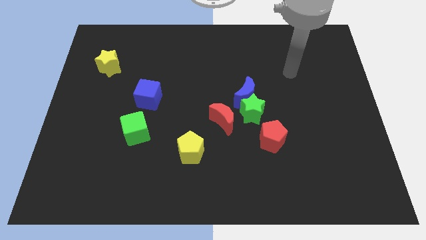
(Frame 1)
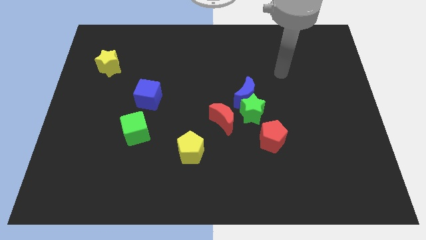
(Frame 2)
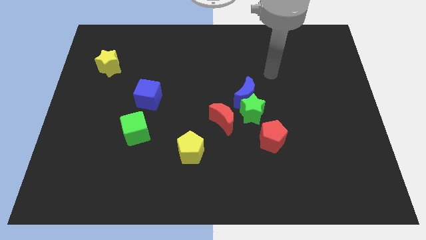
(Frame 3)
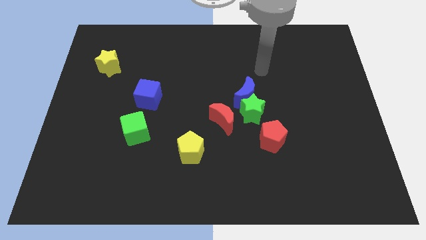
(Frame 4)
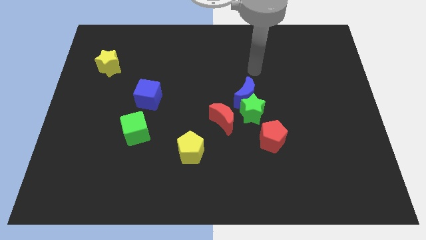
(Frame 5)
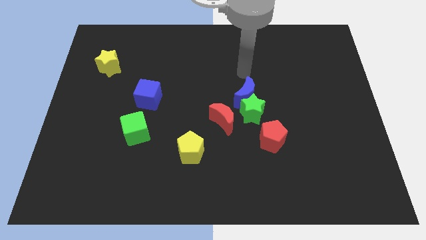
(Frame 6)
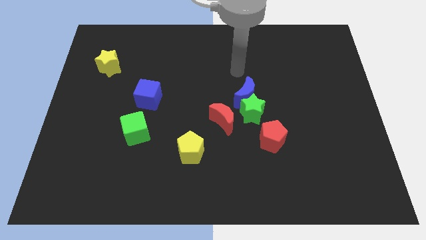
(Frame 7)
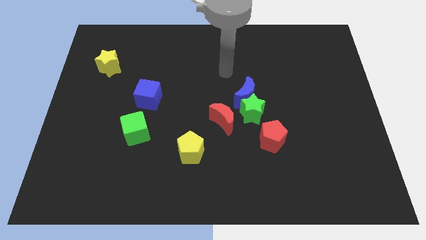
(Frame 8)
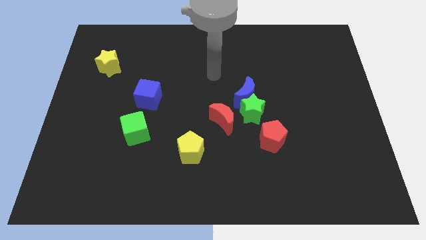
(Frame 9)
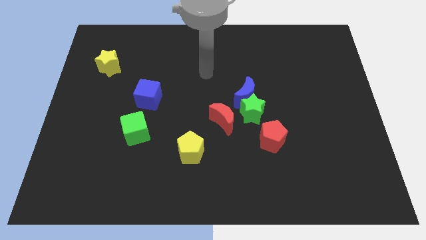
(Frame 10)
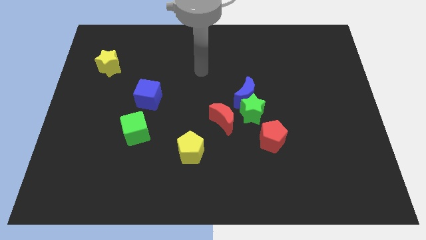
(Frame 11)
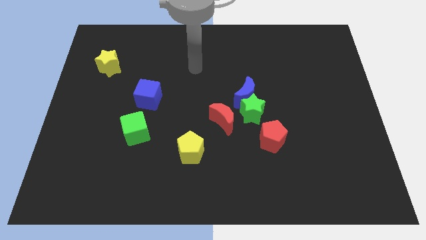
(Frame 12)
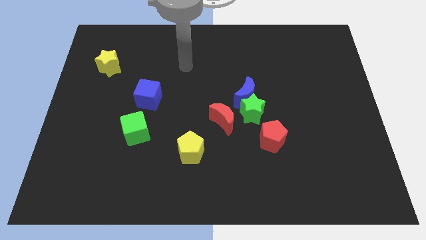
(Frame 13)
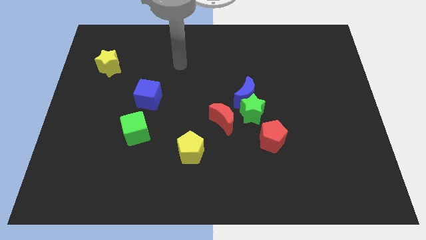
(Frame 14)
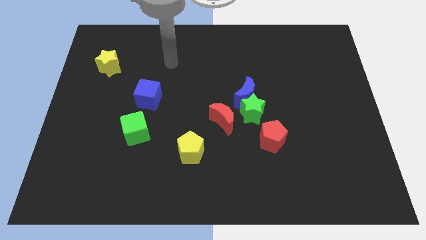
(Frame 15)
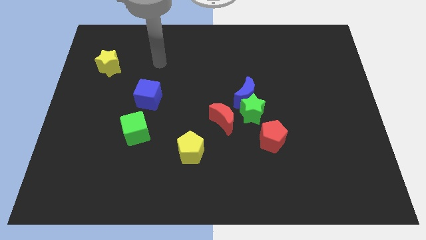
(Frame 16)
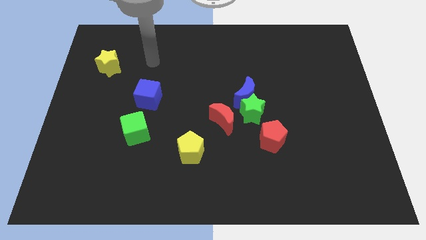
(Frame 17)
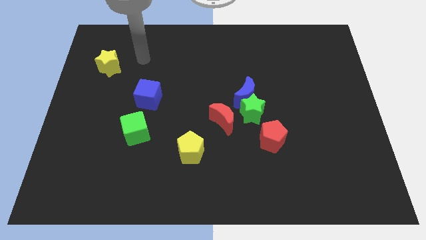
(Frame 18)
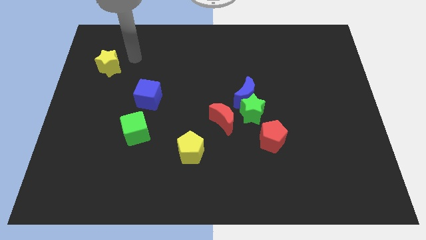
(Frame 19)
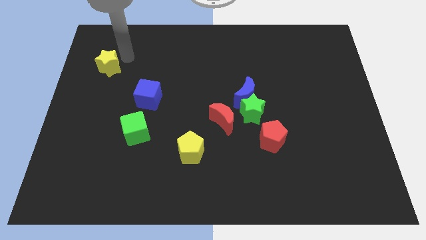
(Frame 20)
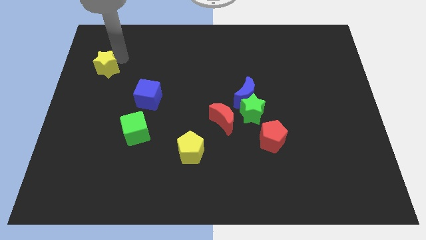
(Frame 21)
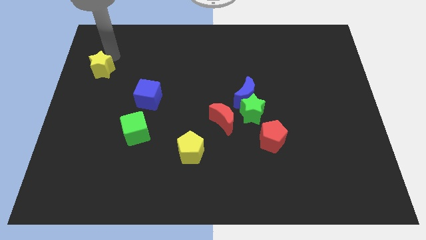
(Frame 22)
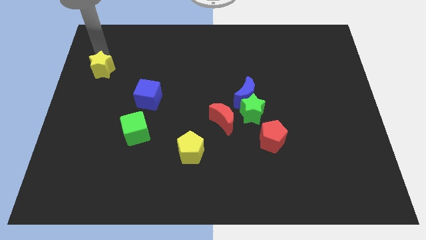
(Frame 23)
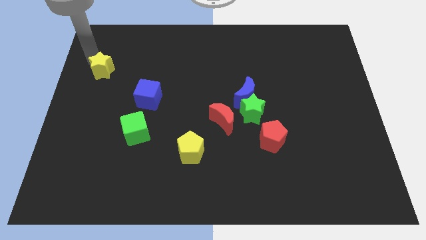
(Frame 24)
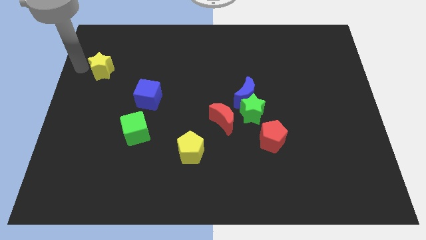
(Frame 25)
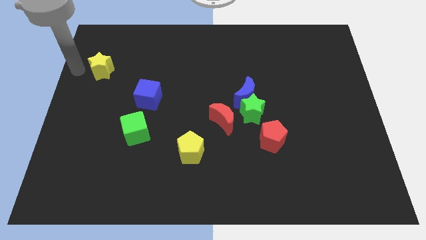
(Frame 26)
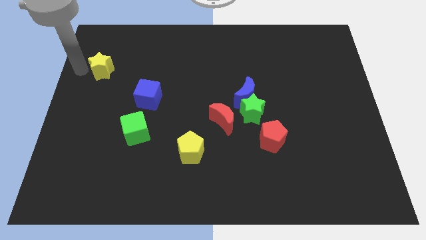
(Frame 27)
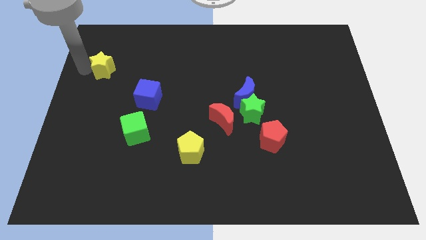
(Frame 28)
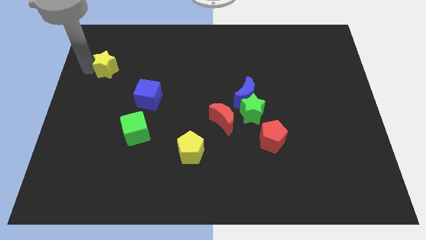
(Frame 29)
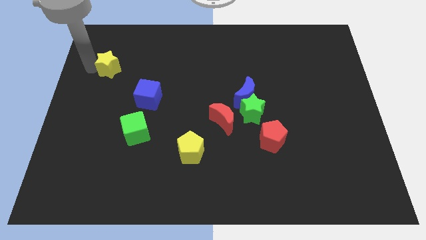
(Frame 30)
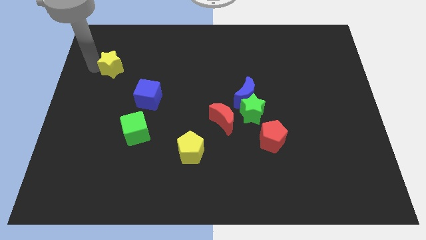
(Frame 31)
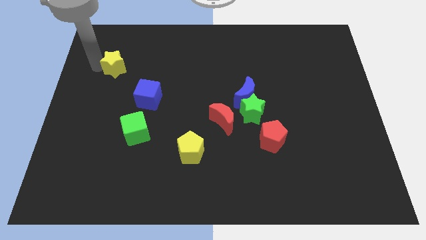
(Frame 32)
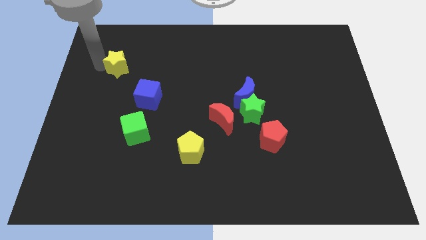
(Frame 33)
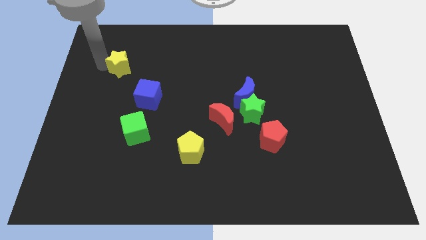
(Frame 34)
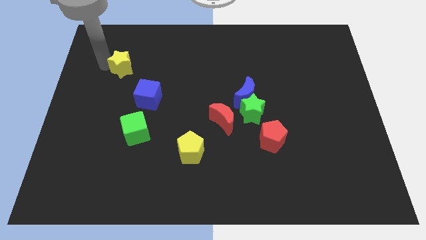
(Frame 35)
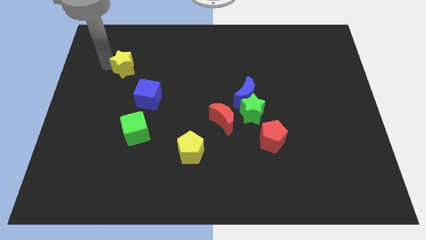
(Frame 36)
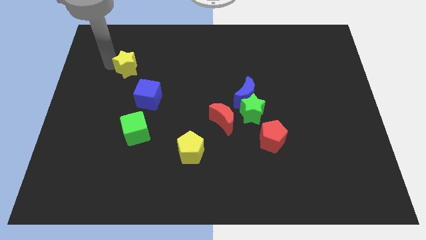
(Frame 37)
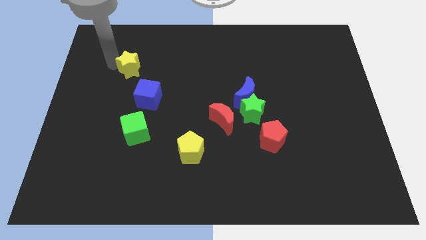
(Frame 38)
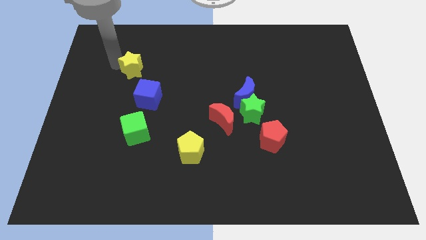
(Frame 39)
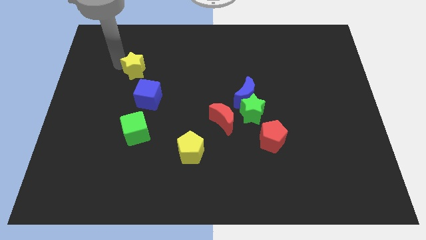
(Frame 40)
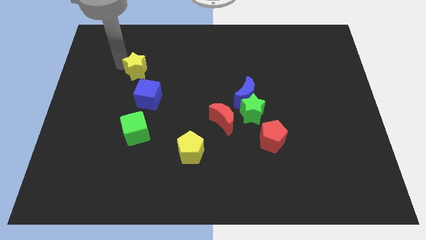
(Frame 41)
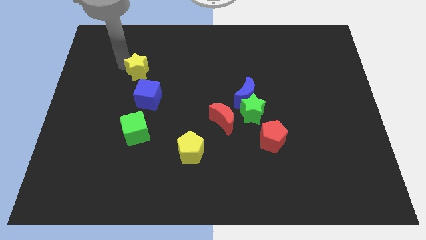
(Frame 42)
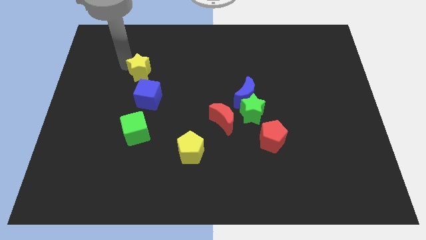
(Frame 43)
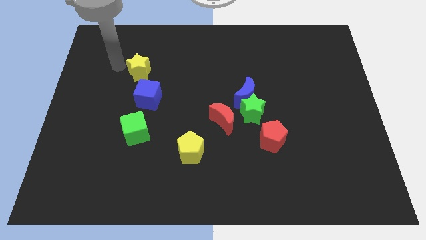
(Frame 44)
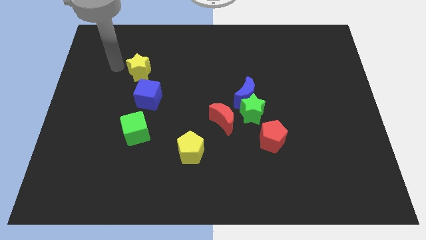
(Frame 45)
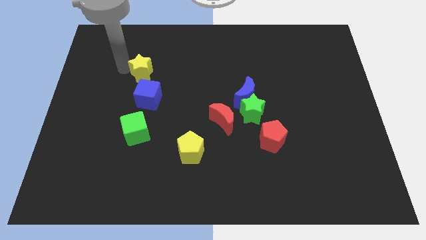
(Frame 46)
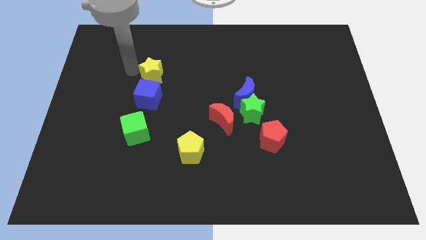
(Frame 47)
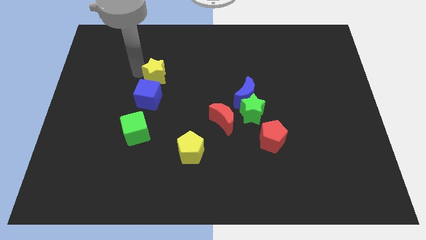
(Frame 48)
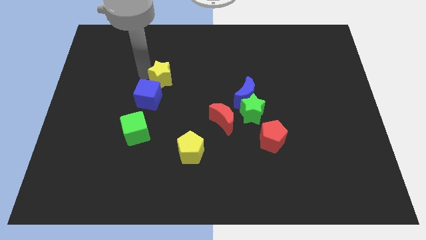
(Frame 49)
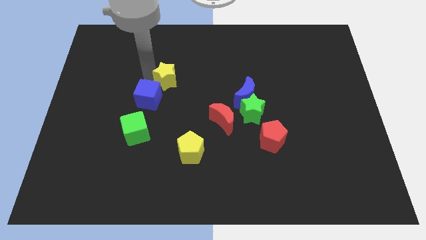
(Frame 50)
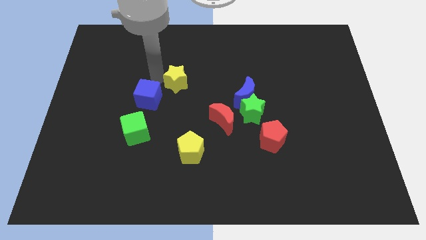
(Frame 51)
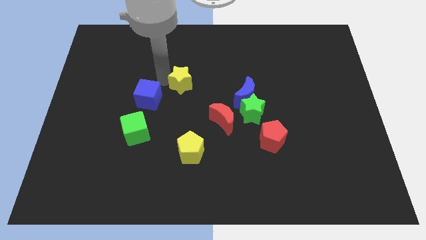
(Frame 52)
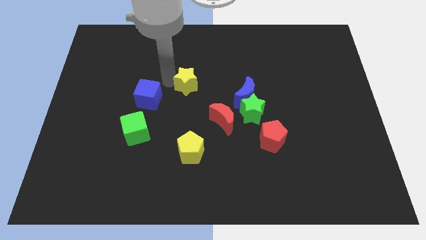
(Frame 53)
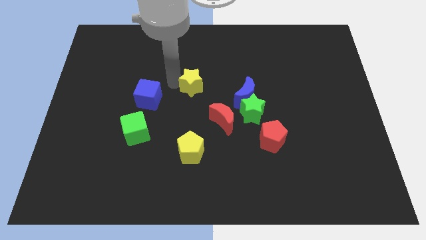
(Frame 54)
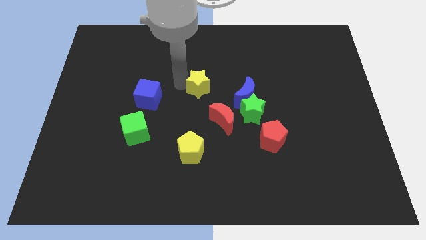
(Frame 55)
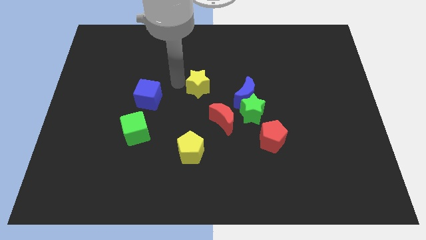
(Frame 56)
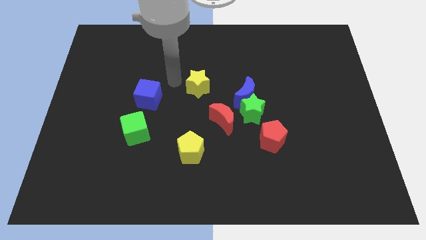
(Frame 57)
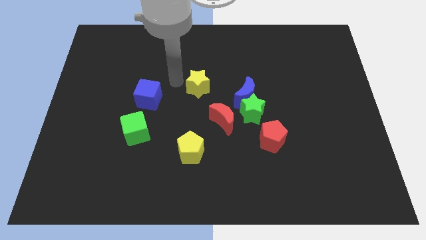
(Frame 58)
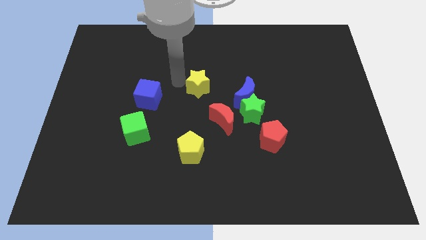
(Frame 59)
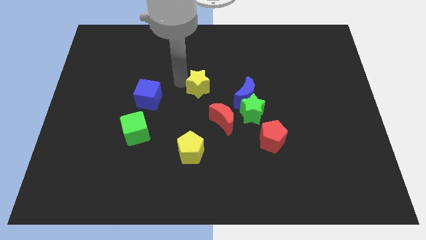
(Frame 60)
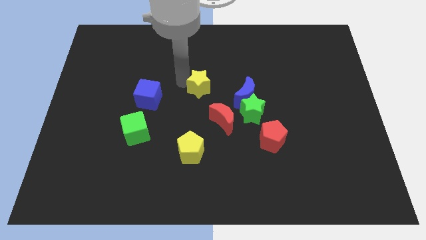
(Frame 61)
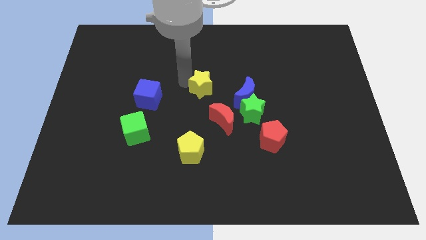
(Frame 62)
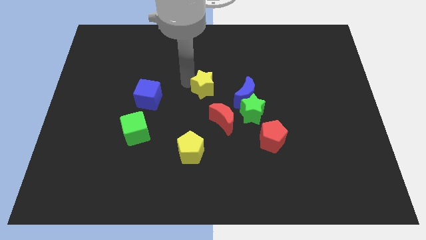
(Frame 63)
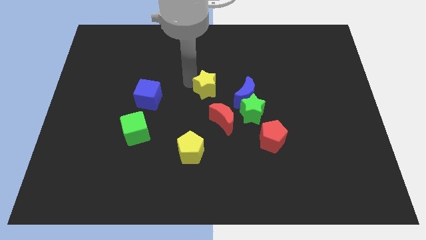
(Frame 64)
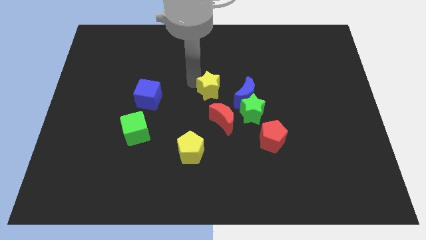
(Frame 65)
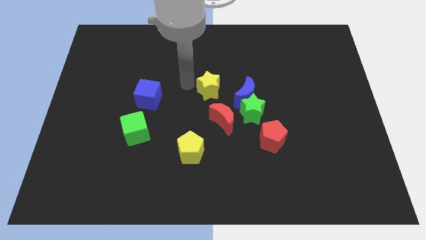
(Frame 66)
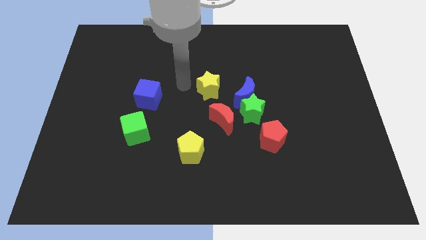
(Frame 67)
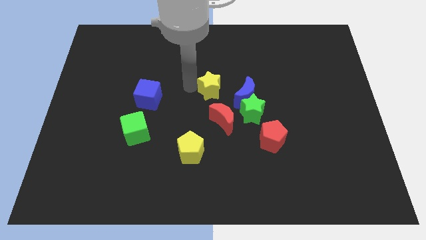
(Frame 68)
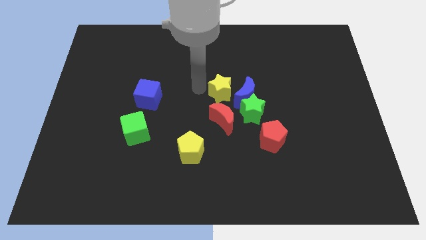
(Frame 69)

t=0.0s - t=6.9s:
slide the yellow star next to the blue moon

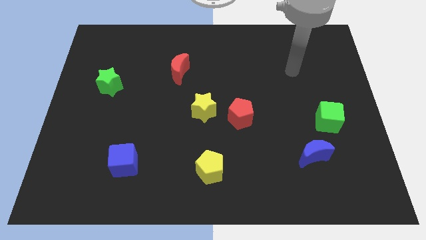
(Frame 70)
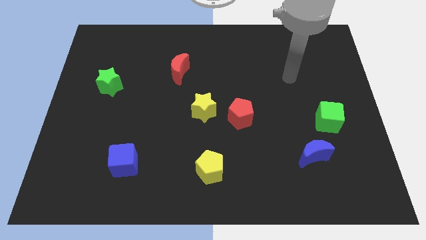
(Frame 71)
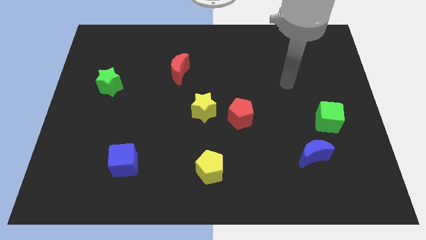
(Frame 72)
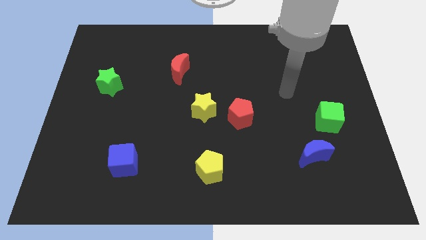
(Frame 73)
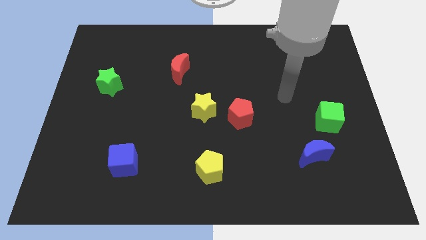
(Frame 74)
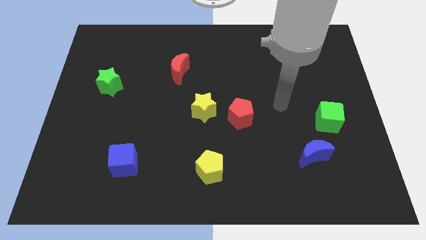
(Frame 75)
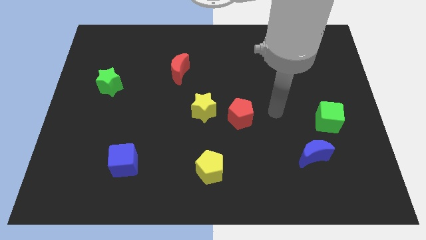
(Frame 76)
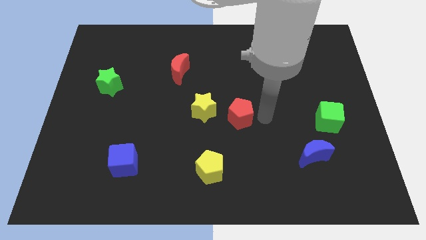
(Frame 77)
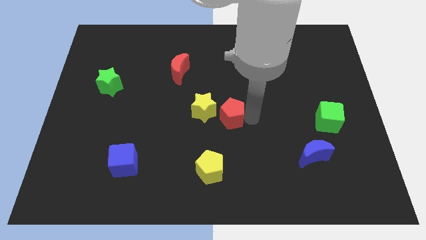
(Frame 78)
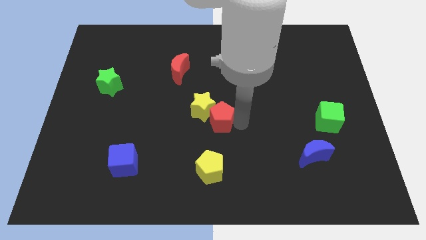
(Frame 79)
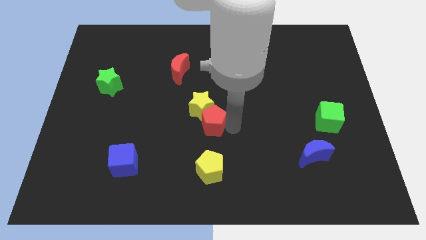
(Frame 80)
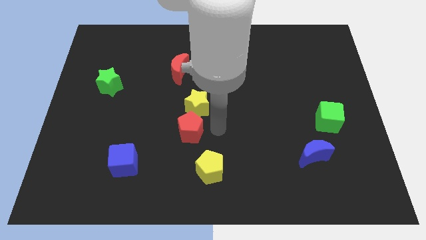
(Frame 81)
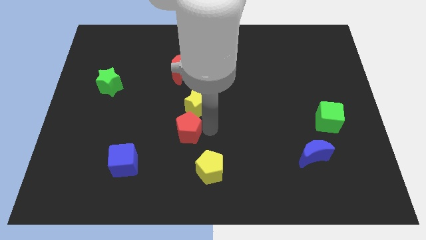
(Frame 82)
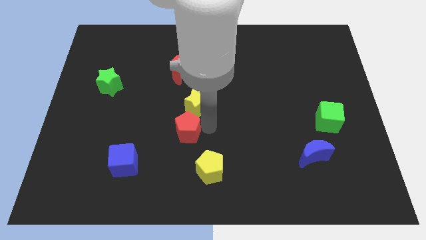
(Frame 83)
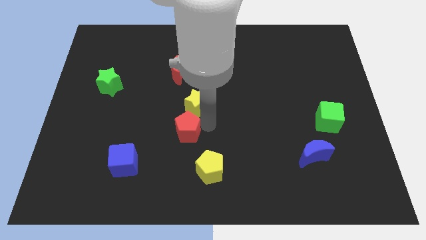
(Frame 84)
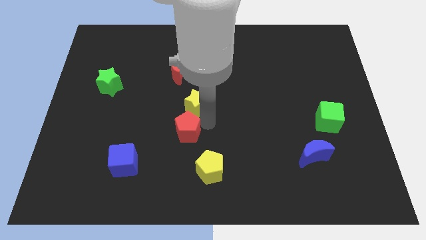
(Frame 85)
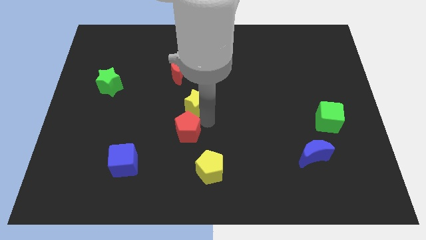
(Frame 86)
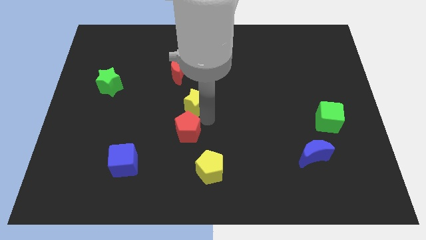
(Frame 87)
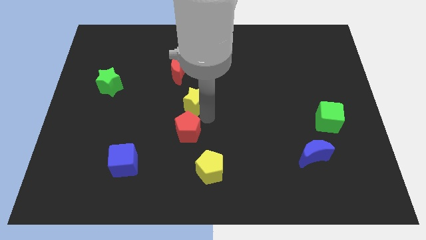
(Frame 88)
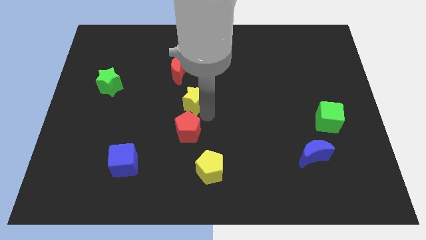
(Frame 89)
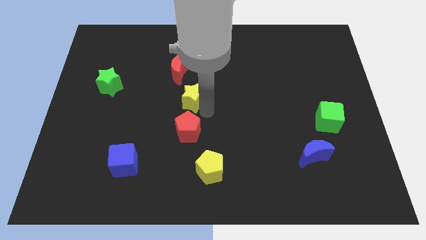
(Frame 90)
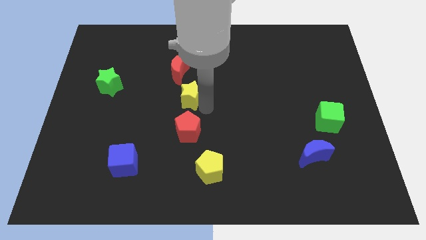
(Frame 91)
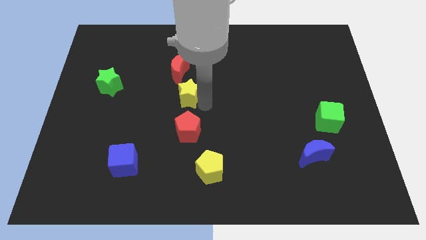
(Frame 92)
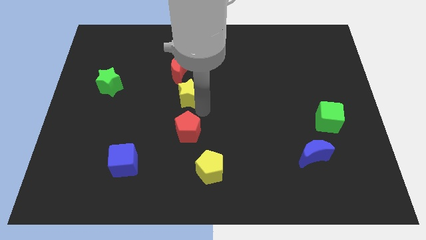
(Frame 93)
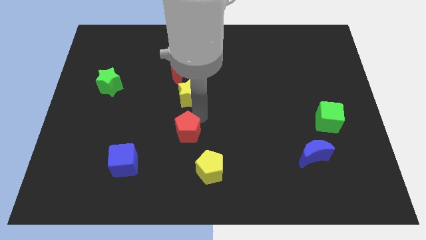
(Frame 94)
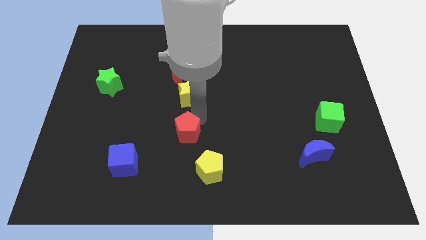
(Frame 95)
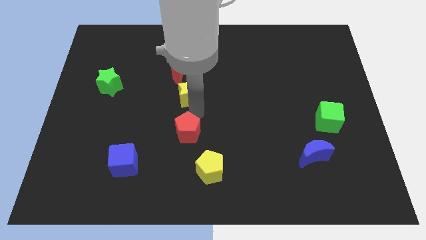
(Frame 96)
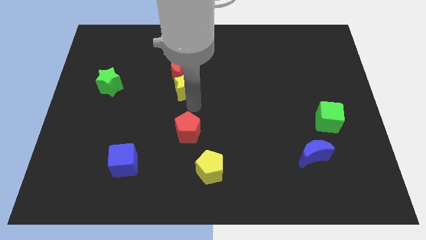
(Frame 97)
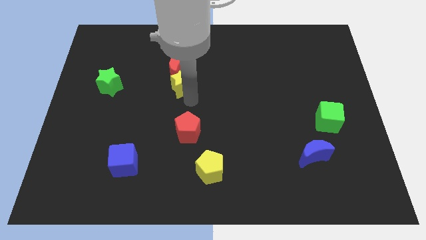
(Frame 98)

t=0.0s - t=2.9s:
put the yellow star towards the red moon
